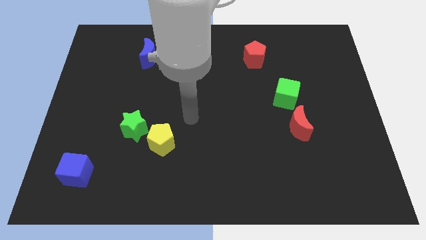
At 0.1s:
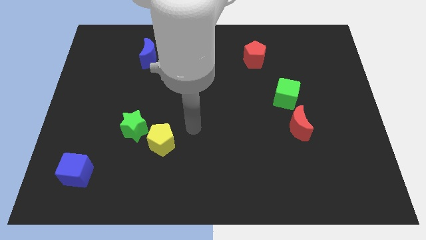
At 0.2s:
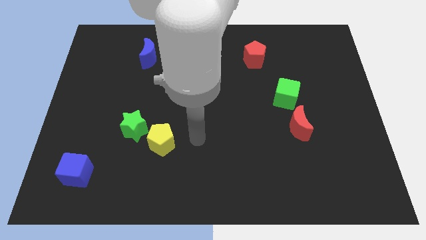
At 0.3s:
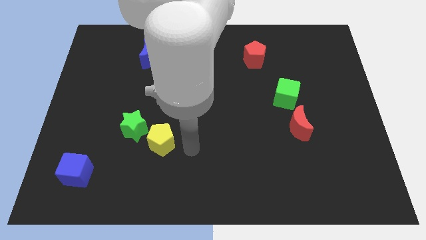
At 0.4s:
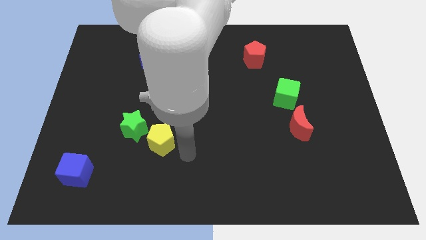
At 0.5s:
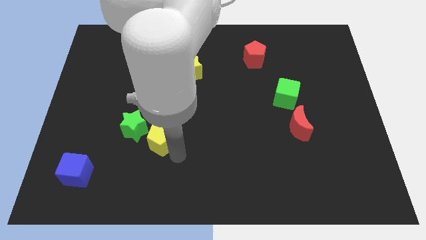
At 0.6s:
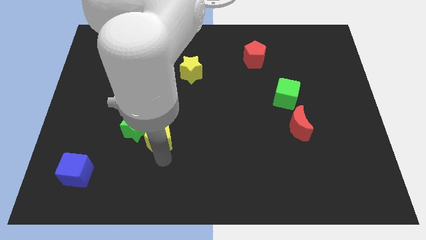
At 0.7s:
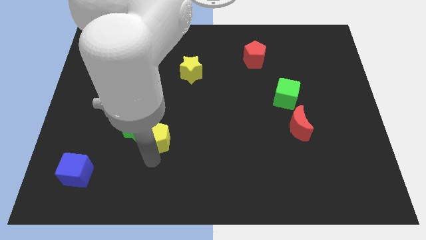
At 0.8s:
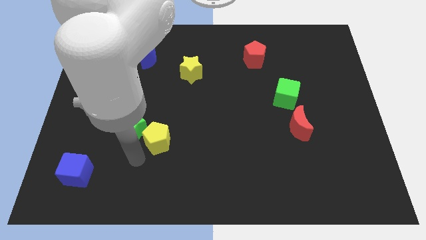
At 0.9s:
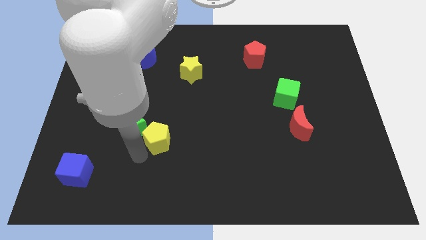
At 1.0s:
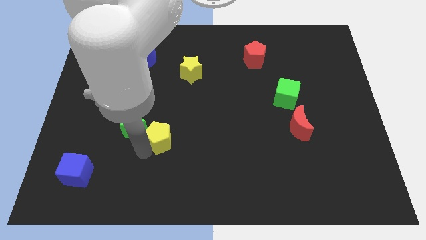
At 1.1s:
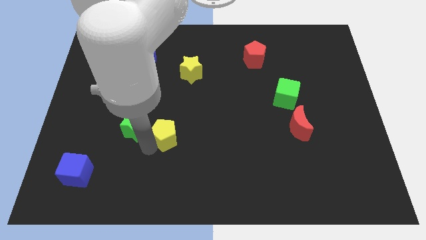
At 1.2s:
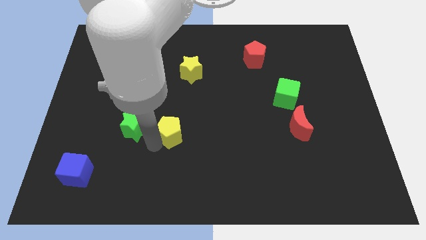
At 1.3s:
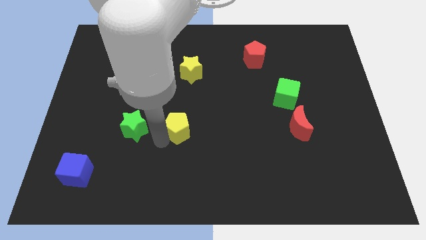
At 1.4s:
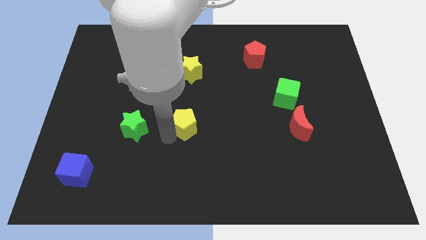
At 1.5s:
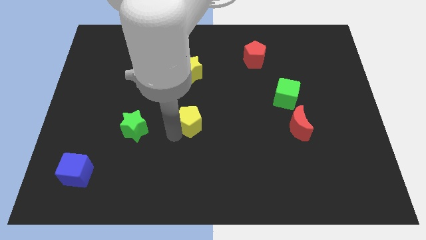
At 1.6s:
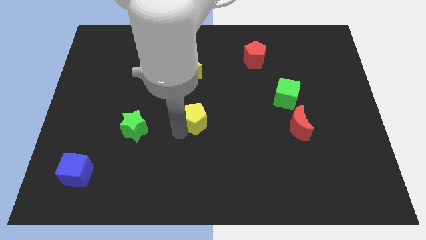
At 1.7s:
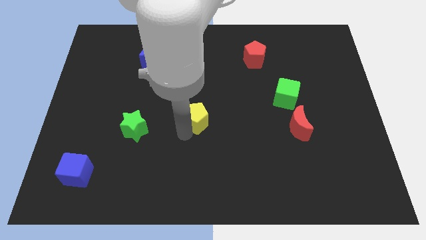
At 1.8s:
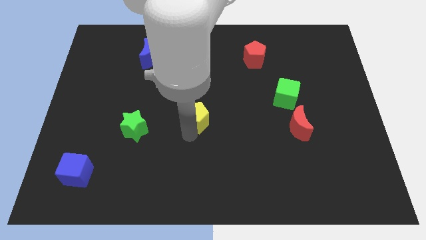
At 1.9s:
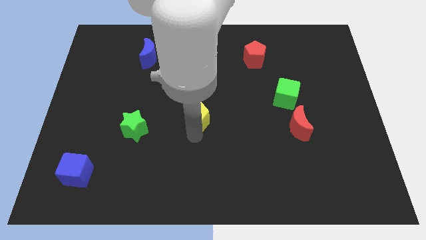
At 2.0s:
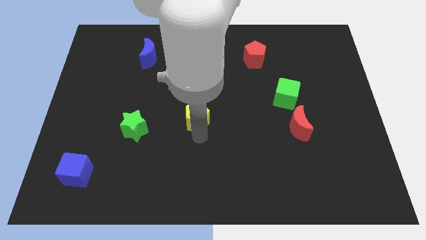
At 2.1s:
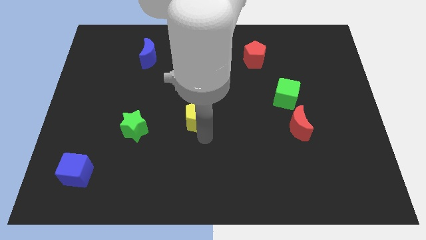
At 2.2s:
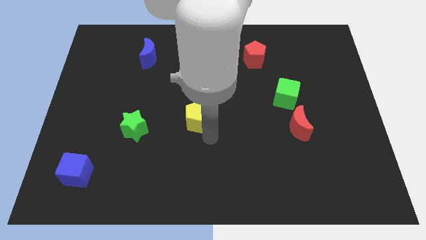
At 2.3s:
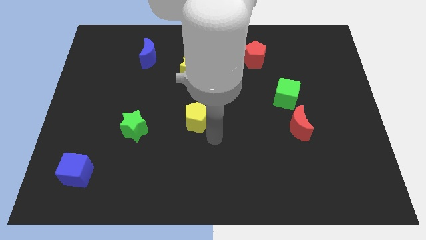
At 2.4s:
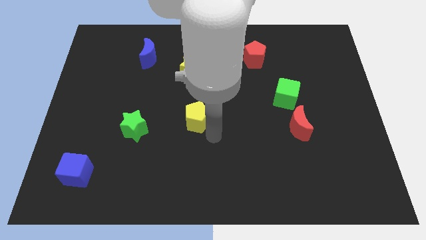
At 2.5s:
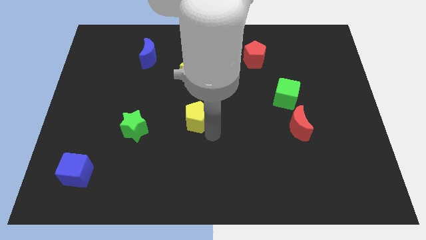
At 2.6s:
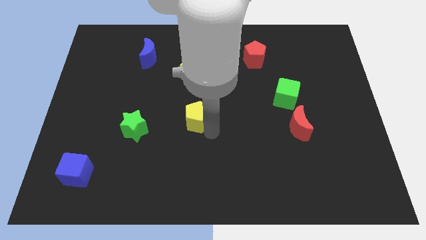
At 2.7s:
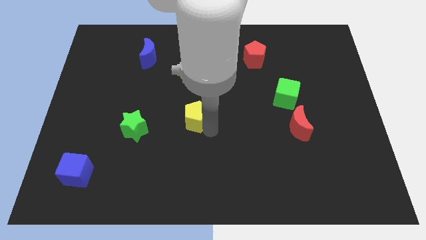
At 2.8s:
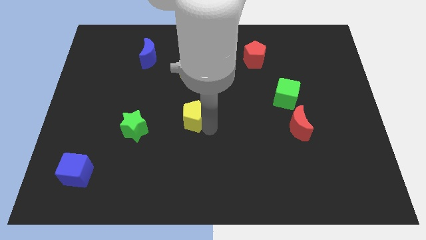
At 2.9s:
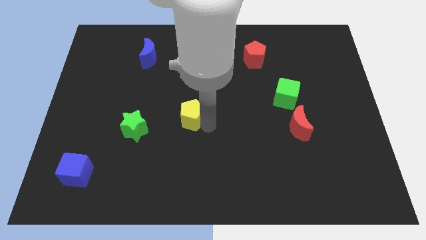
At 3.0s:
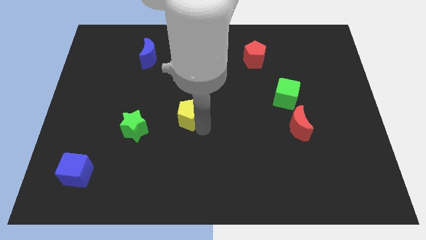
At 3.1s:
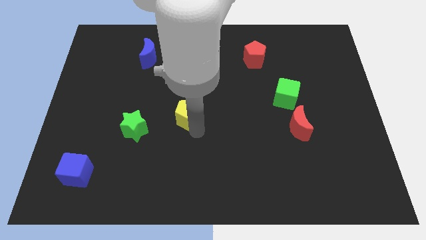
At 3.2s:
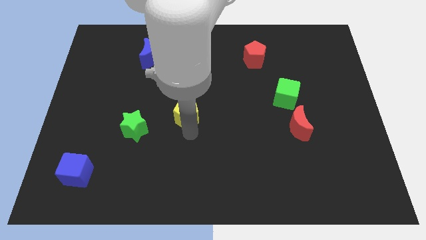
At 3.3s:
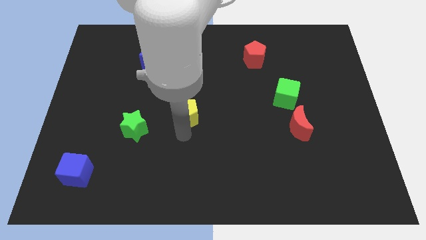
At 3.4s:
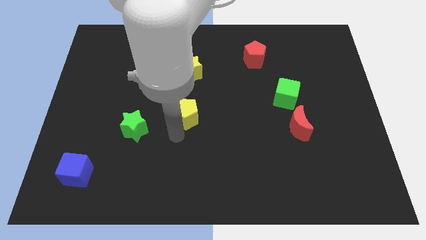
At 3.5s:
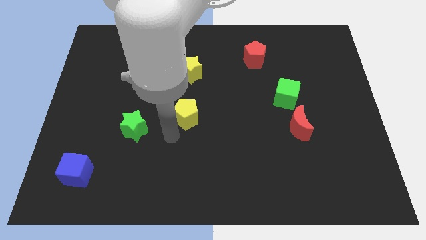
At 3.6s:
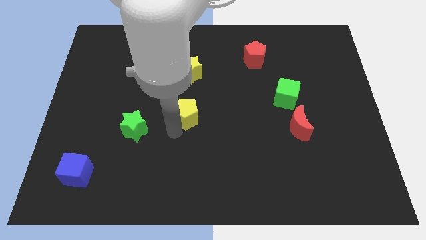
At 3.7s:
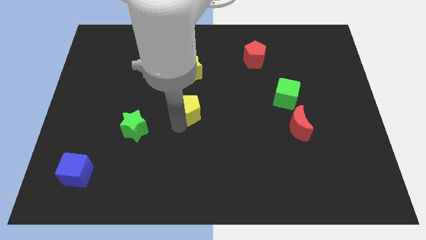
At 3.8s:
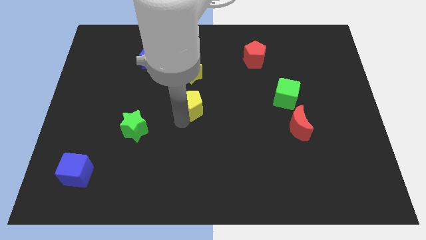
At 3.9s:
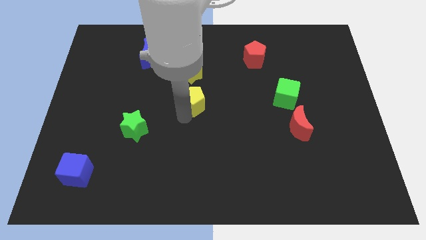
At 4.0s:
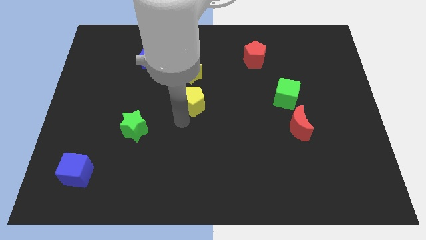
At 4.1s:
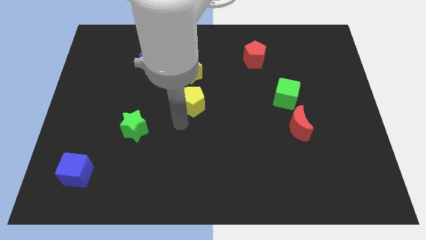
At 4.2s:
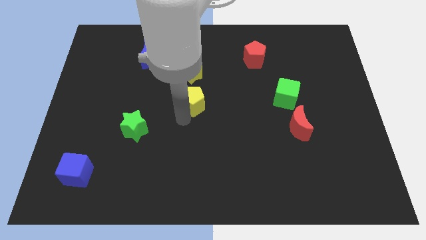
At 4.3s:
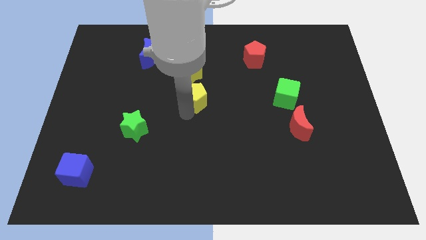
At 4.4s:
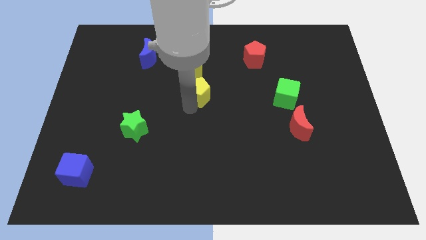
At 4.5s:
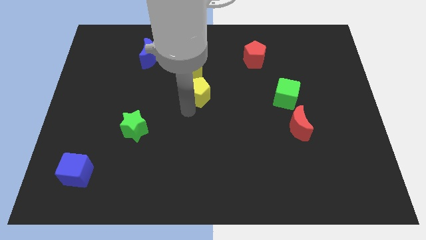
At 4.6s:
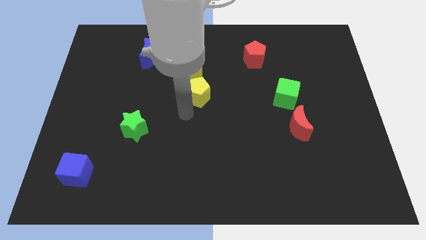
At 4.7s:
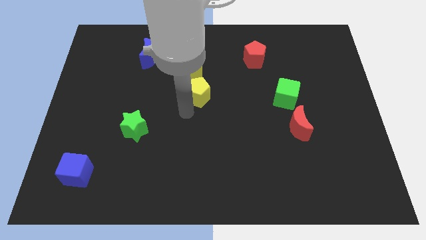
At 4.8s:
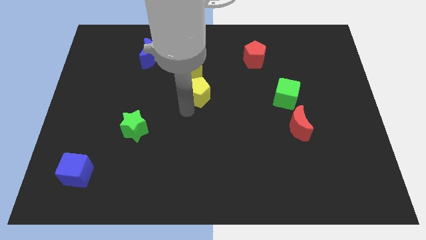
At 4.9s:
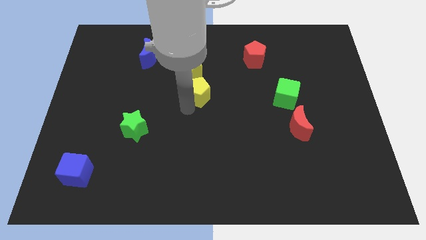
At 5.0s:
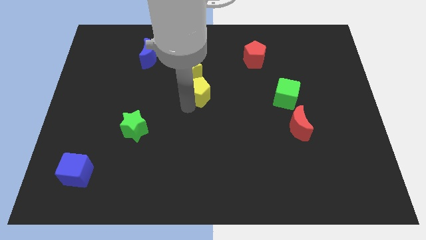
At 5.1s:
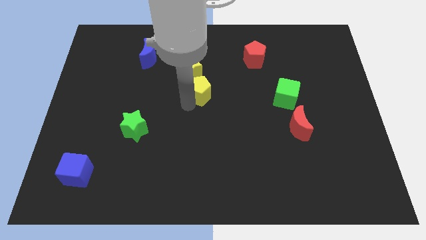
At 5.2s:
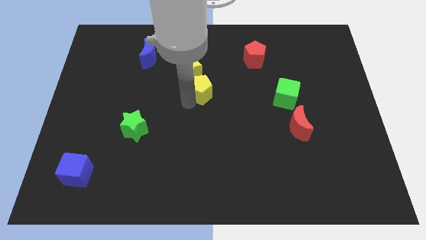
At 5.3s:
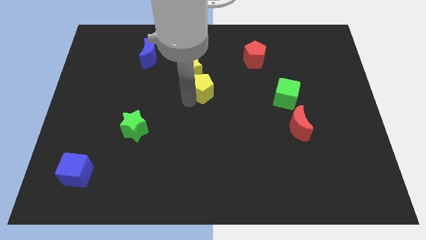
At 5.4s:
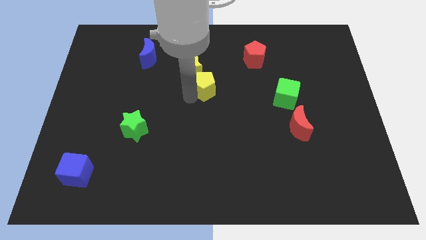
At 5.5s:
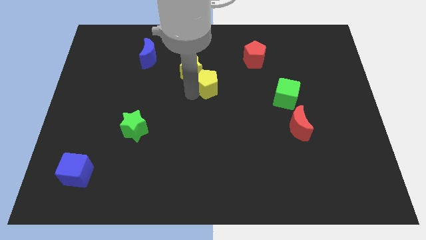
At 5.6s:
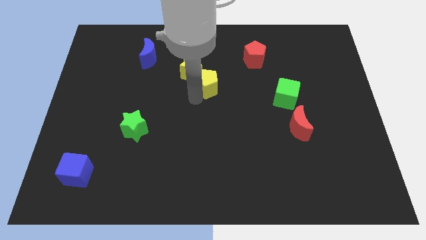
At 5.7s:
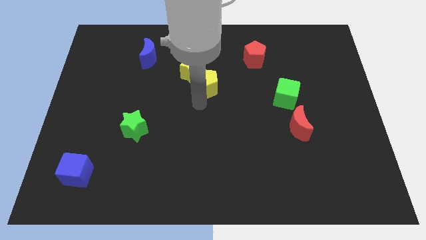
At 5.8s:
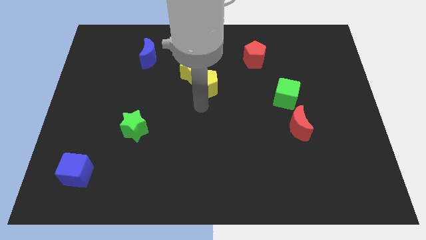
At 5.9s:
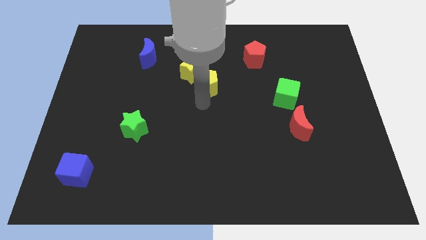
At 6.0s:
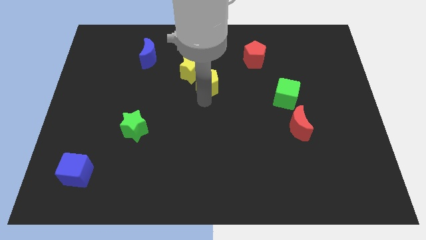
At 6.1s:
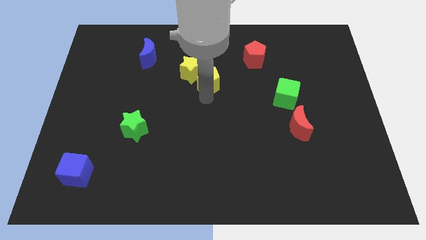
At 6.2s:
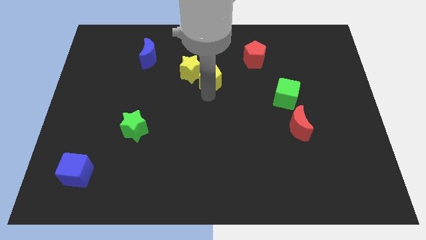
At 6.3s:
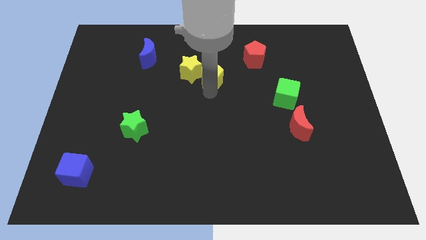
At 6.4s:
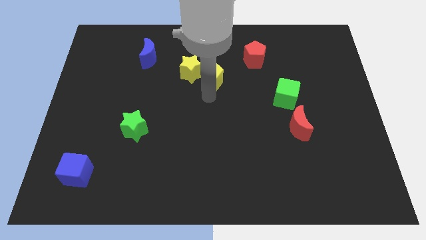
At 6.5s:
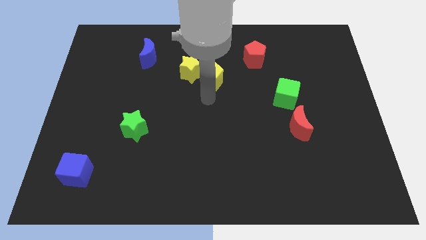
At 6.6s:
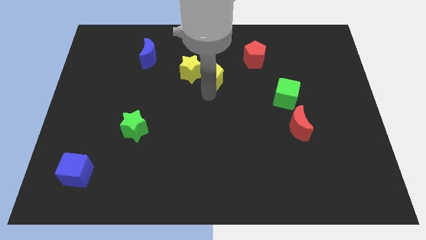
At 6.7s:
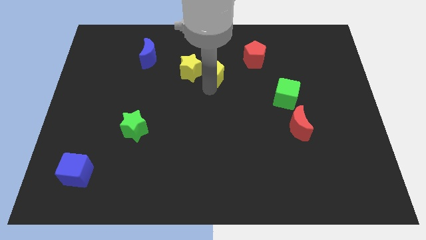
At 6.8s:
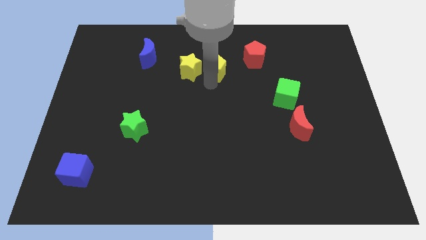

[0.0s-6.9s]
move the yellow pentagon to the left of the red pentagon
